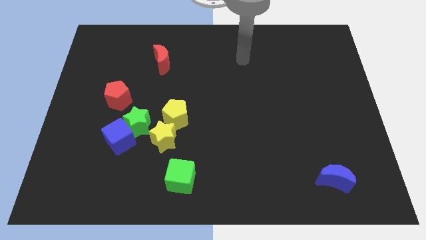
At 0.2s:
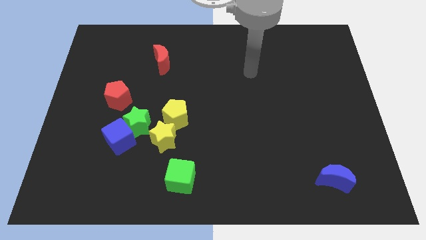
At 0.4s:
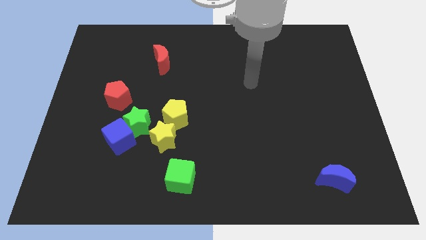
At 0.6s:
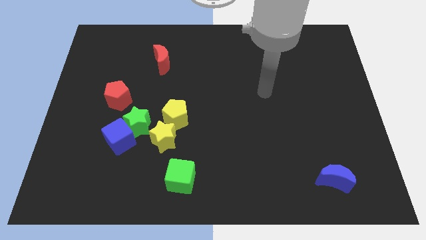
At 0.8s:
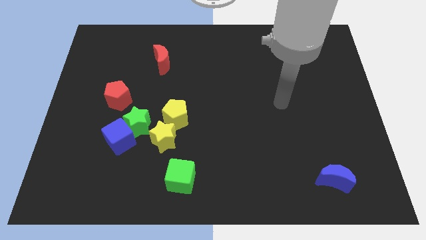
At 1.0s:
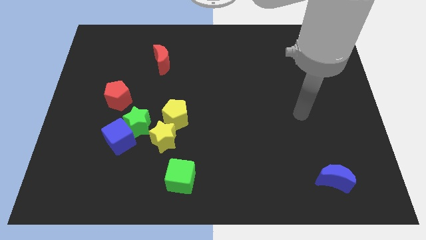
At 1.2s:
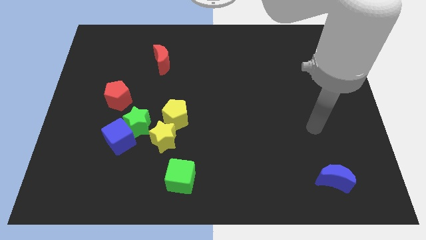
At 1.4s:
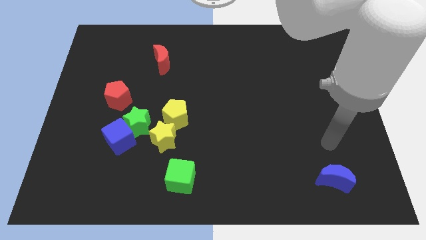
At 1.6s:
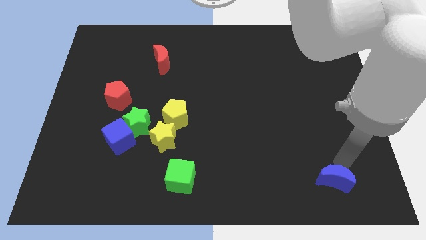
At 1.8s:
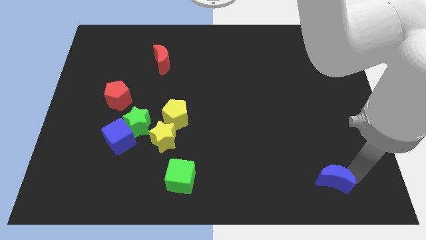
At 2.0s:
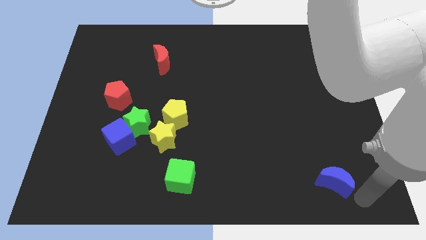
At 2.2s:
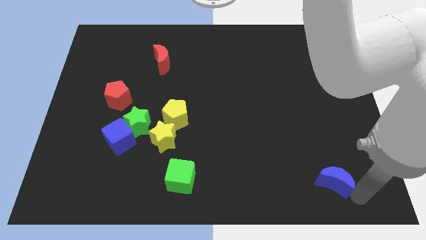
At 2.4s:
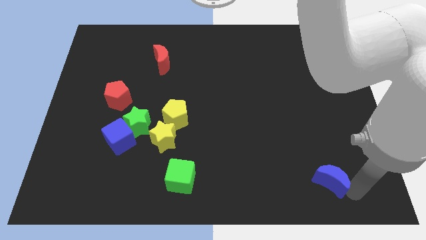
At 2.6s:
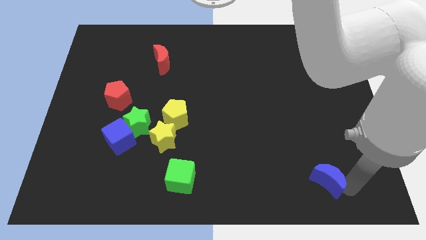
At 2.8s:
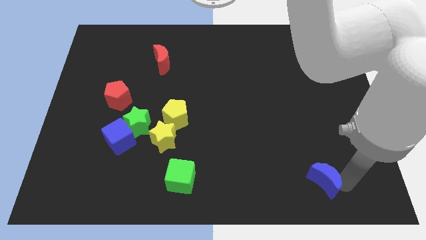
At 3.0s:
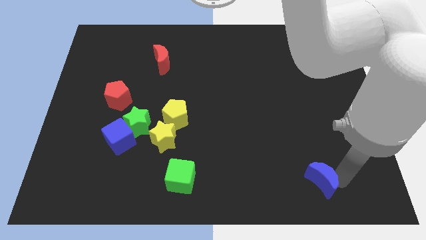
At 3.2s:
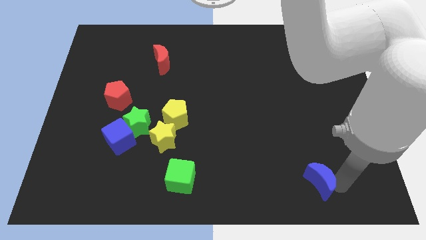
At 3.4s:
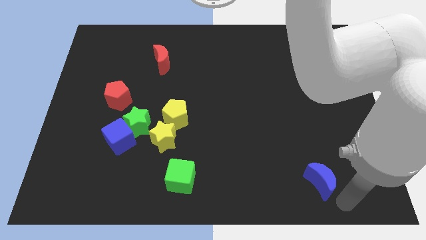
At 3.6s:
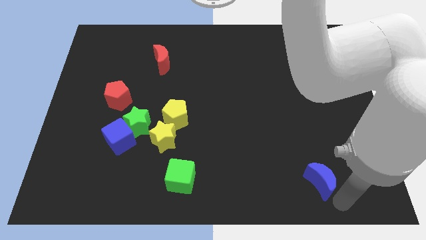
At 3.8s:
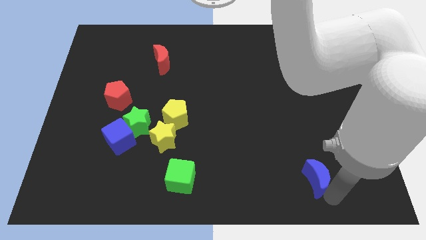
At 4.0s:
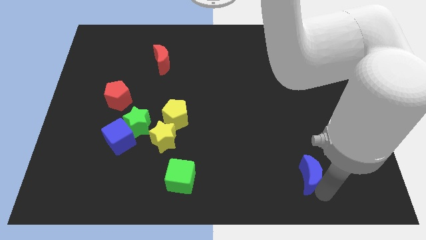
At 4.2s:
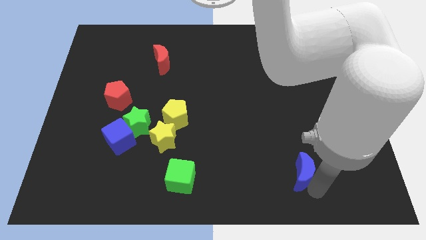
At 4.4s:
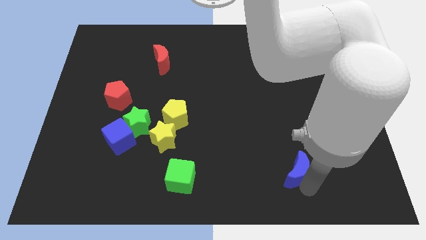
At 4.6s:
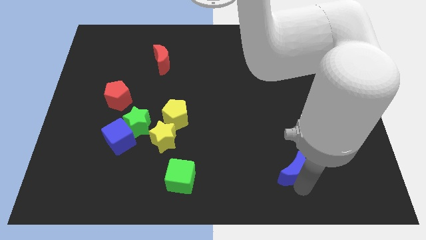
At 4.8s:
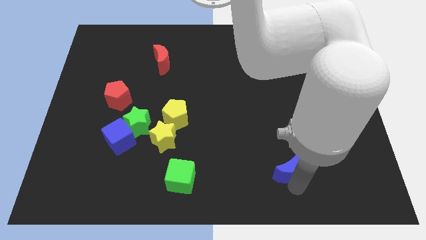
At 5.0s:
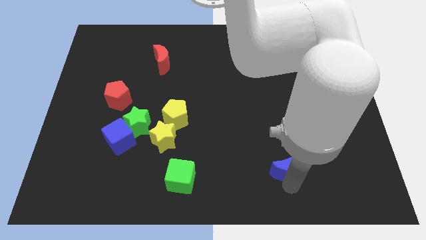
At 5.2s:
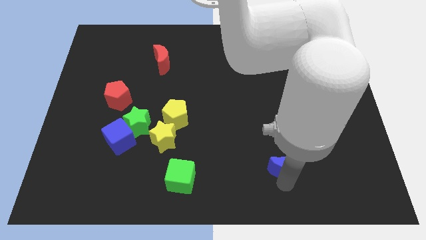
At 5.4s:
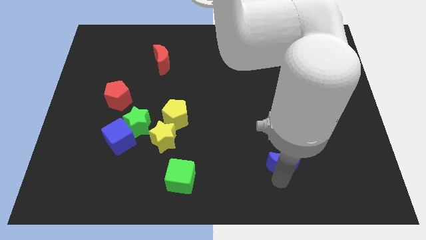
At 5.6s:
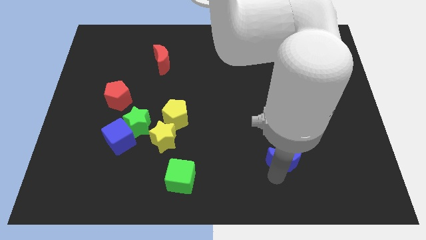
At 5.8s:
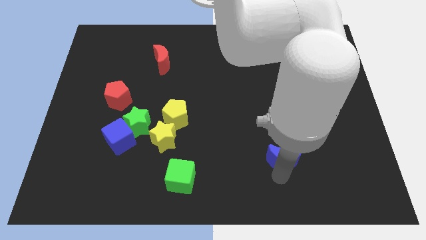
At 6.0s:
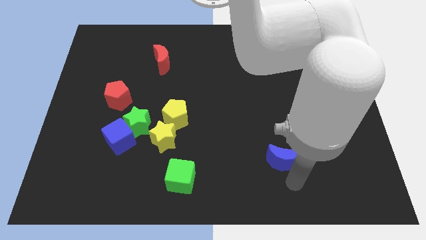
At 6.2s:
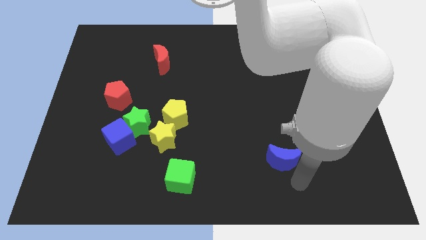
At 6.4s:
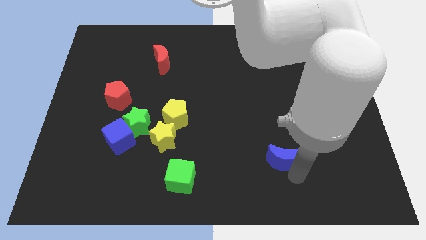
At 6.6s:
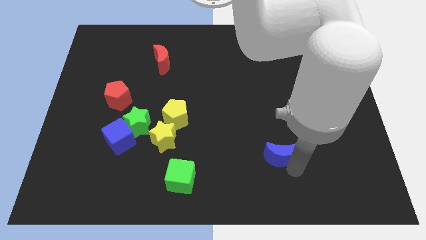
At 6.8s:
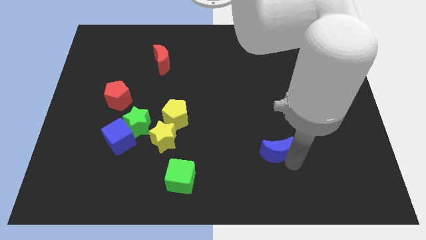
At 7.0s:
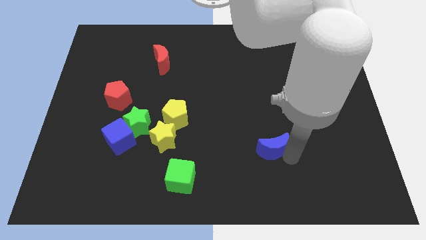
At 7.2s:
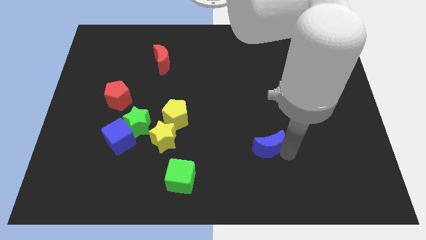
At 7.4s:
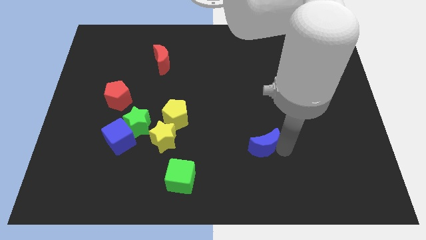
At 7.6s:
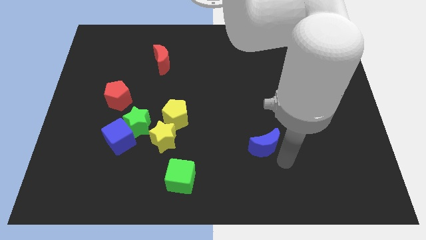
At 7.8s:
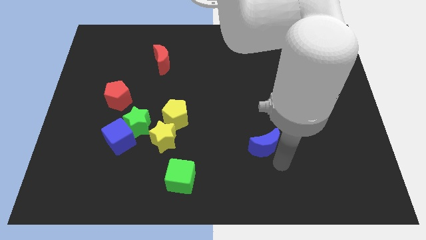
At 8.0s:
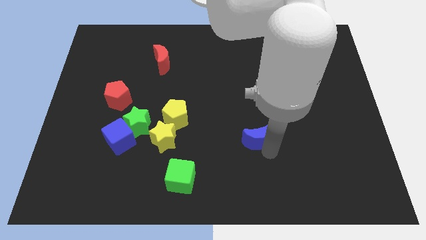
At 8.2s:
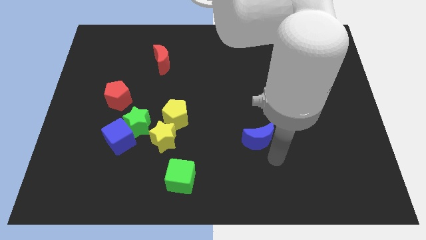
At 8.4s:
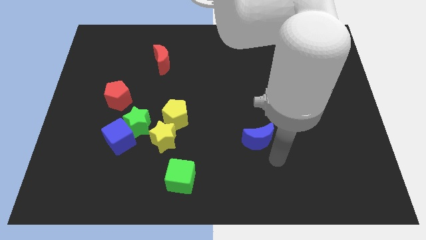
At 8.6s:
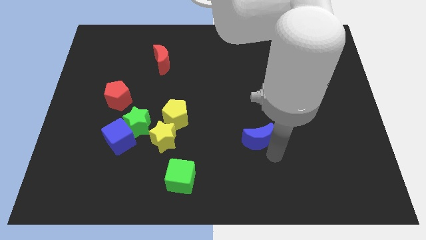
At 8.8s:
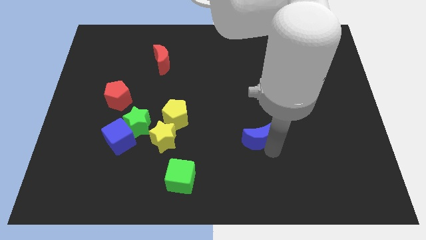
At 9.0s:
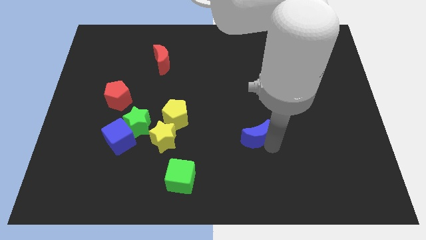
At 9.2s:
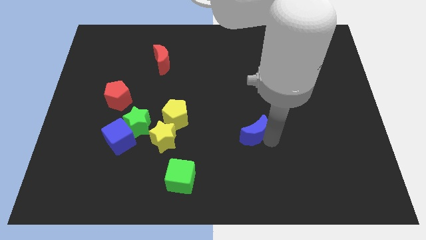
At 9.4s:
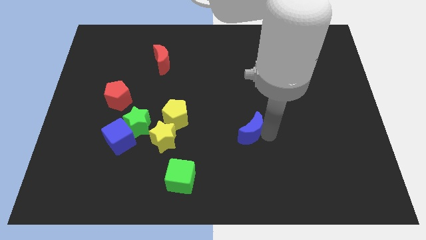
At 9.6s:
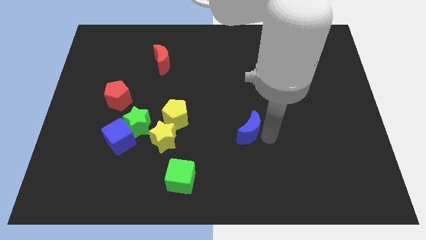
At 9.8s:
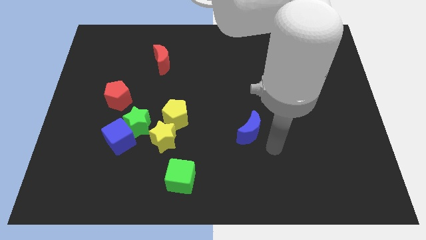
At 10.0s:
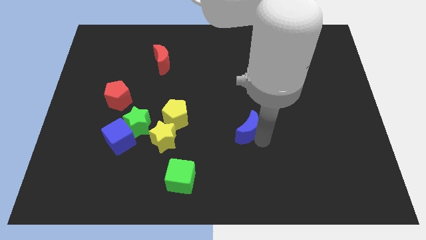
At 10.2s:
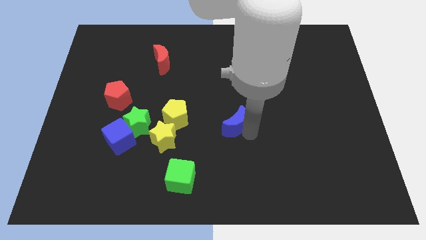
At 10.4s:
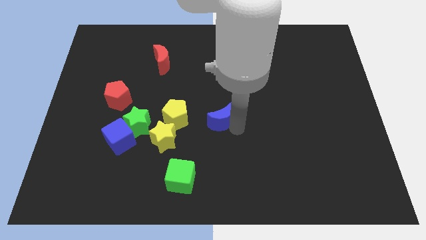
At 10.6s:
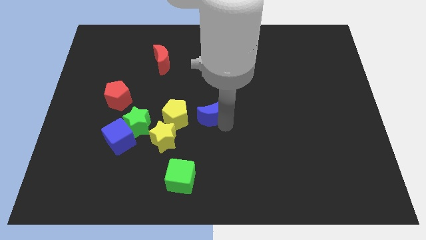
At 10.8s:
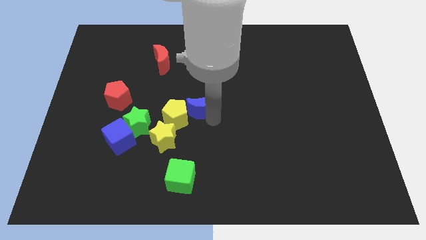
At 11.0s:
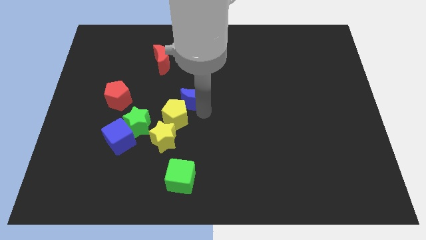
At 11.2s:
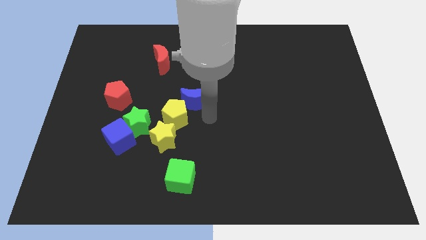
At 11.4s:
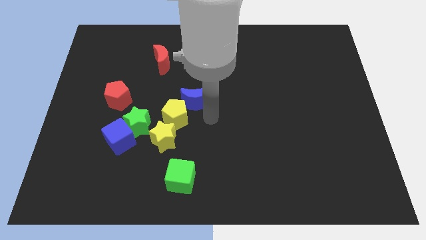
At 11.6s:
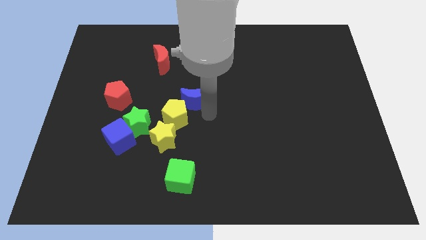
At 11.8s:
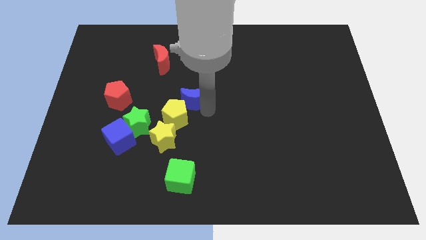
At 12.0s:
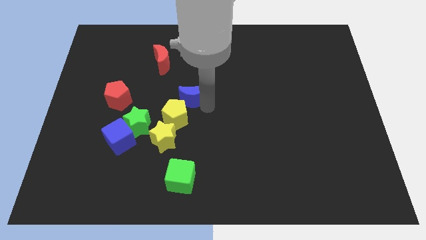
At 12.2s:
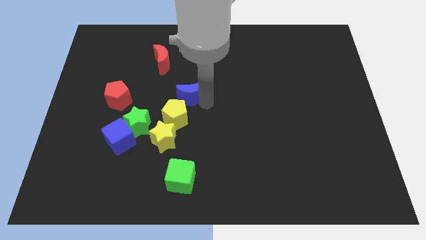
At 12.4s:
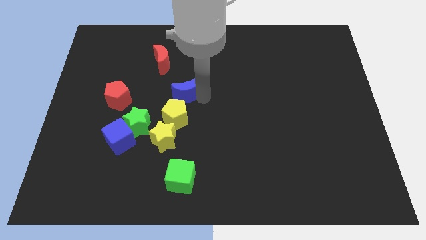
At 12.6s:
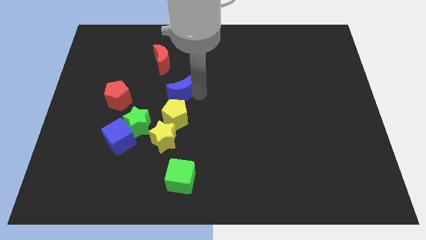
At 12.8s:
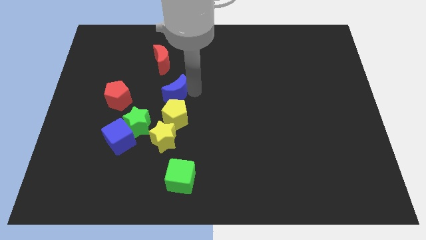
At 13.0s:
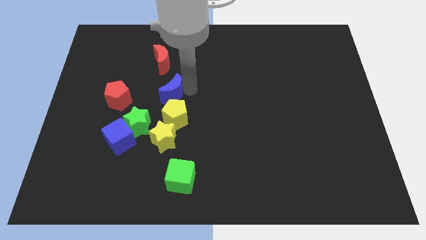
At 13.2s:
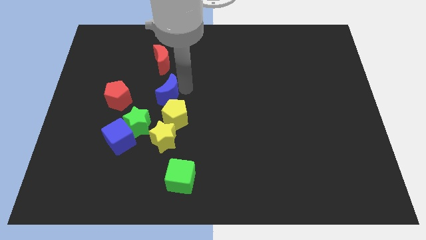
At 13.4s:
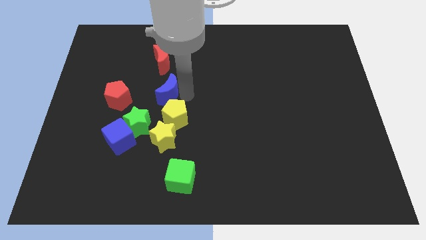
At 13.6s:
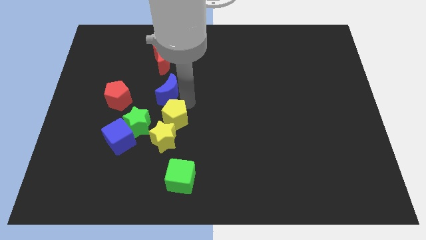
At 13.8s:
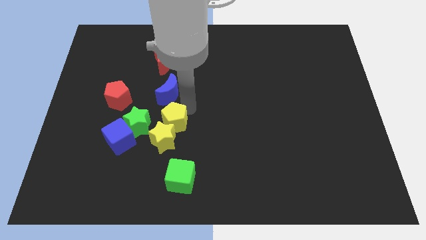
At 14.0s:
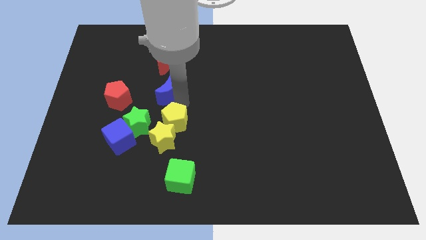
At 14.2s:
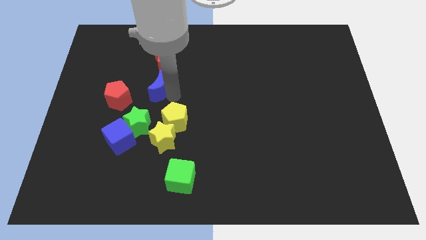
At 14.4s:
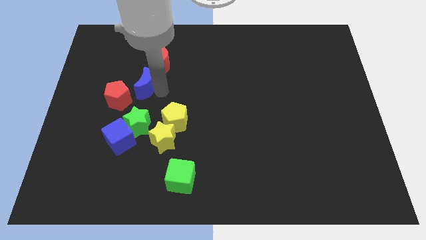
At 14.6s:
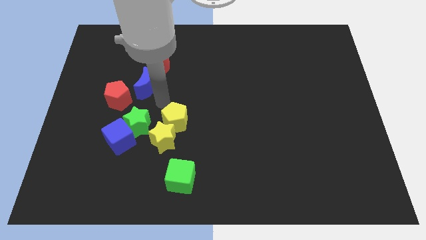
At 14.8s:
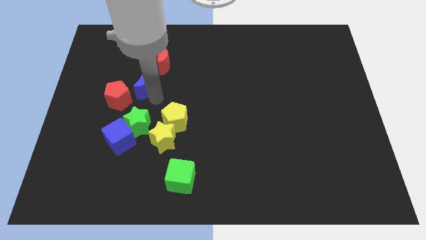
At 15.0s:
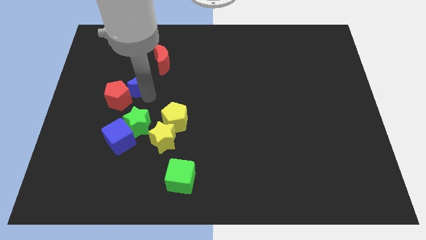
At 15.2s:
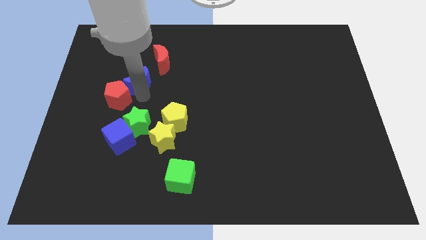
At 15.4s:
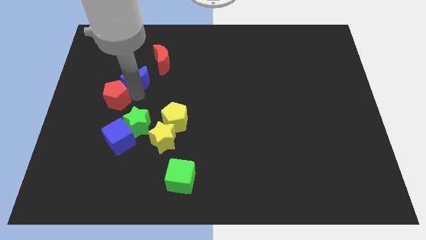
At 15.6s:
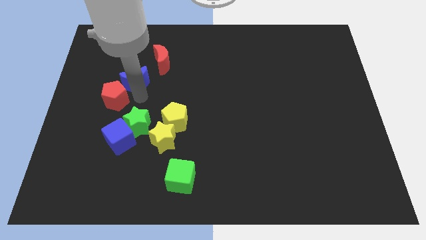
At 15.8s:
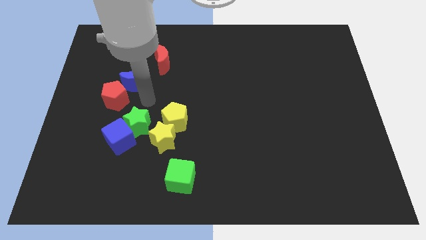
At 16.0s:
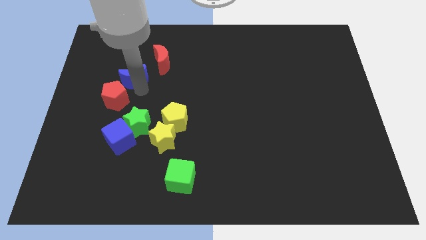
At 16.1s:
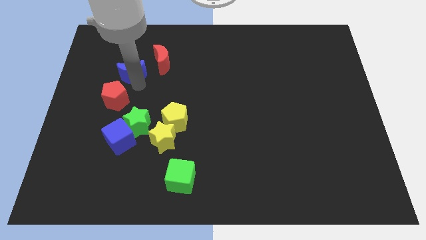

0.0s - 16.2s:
slide the blue moon left of the red moon
